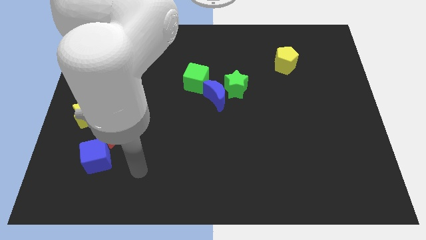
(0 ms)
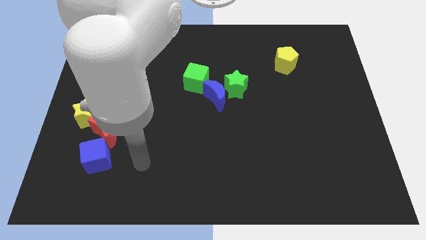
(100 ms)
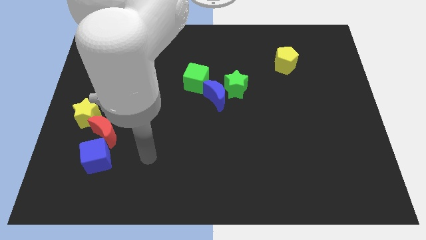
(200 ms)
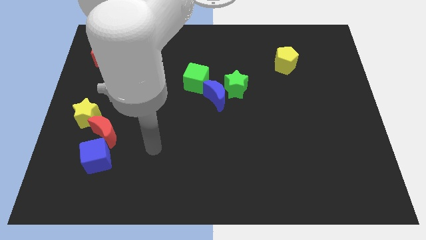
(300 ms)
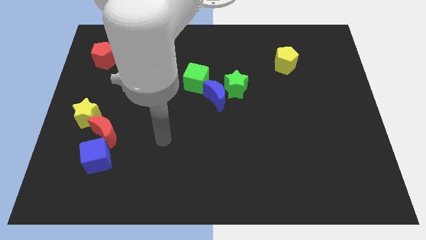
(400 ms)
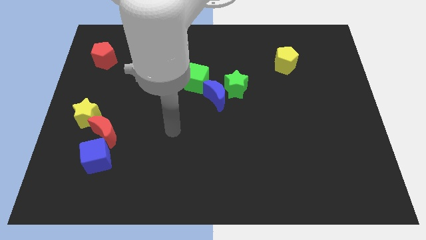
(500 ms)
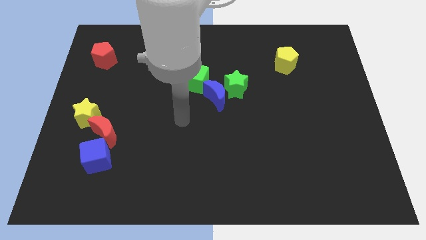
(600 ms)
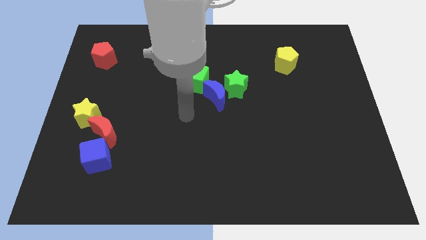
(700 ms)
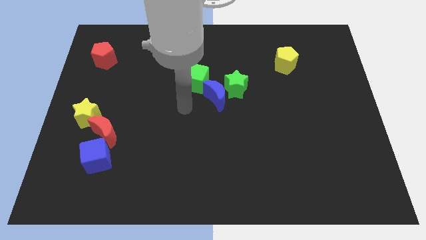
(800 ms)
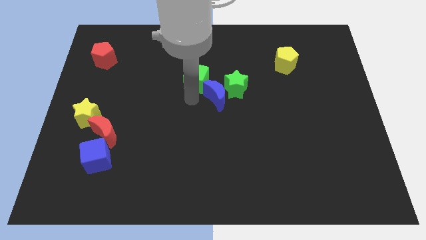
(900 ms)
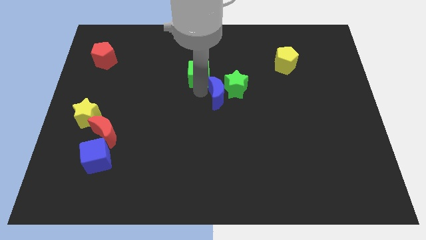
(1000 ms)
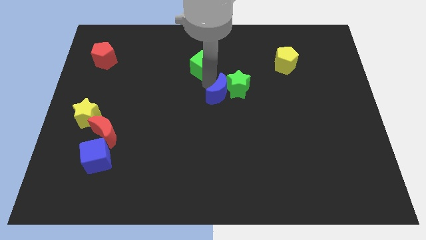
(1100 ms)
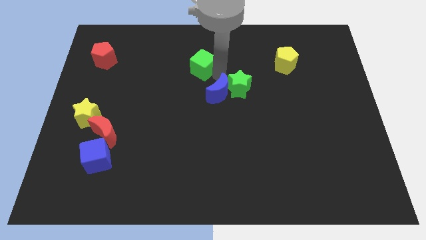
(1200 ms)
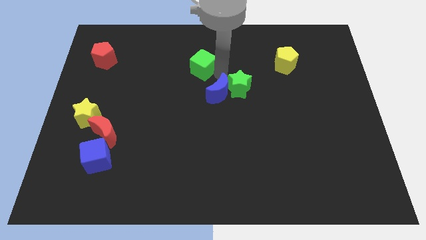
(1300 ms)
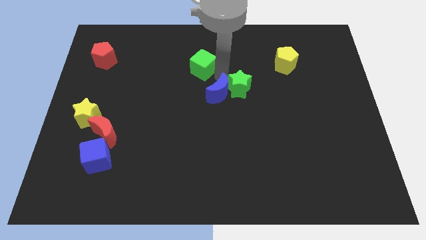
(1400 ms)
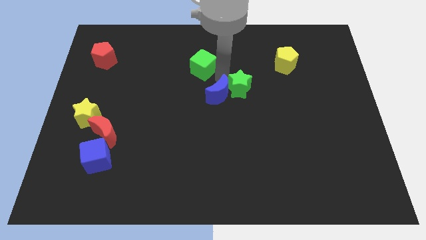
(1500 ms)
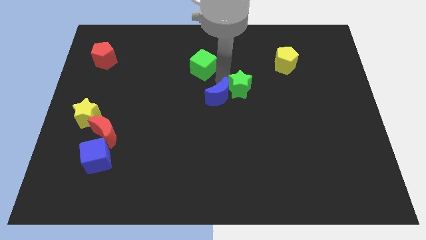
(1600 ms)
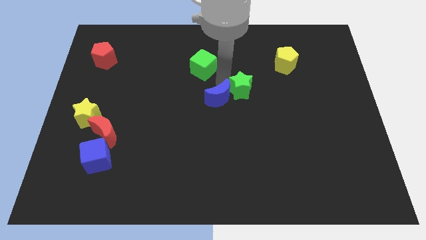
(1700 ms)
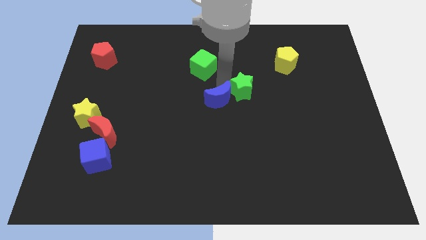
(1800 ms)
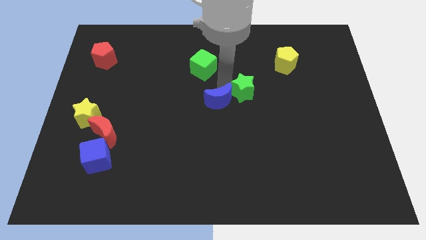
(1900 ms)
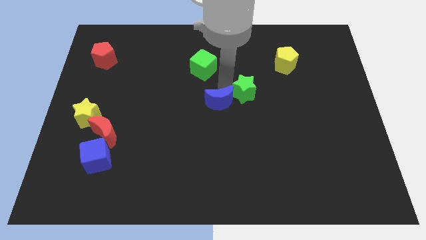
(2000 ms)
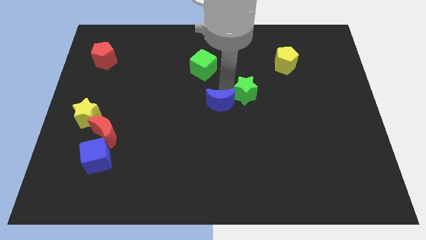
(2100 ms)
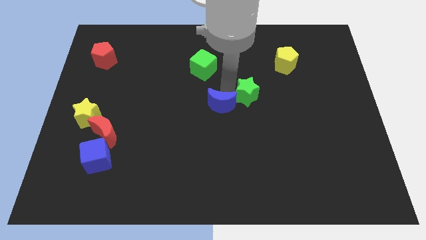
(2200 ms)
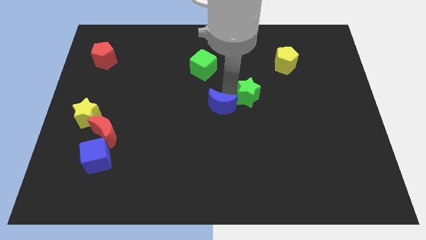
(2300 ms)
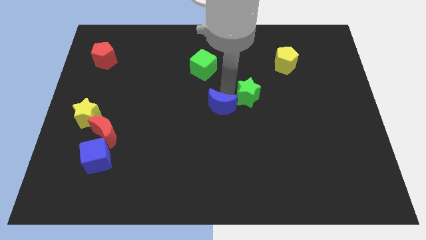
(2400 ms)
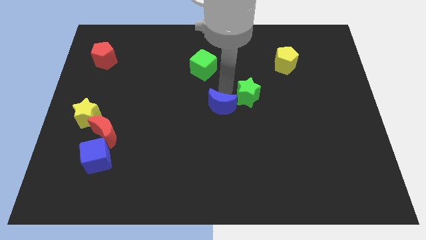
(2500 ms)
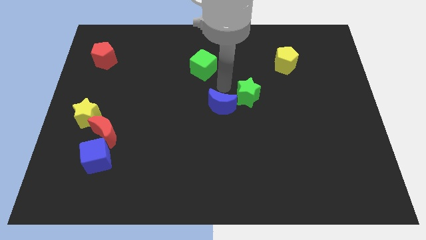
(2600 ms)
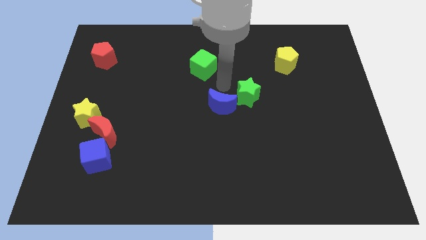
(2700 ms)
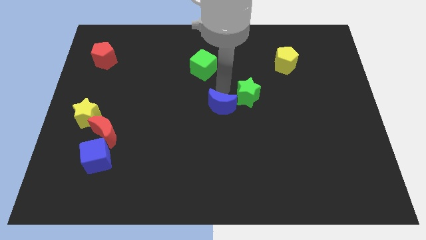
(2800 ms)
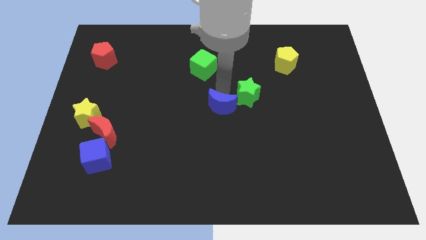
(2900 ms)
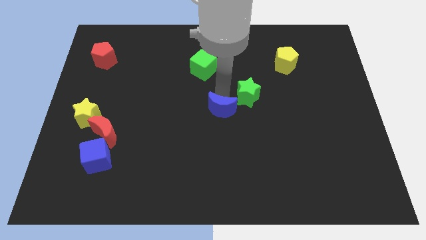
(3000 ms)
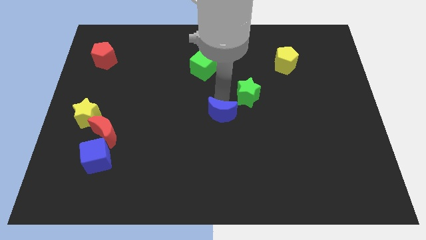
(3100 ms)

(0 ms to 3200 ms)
pull the blue moon apart from the green star and green cube

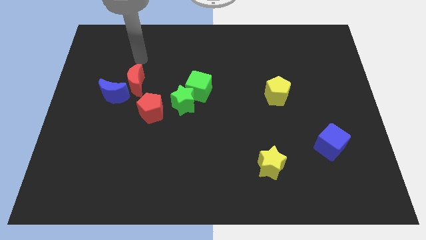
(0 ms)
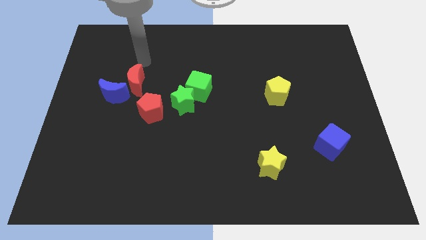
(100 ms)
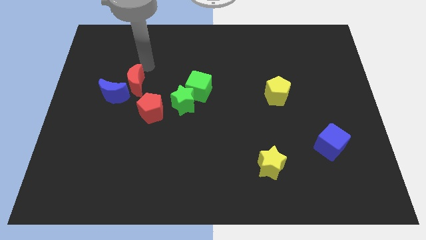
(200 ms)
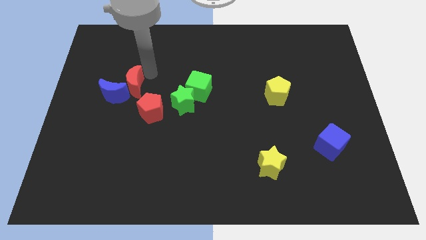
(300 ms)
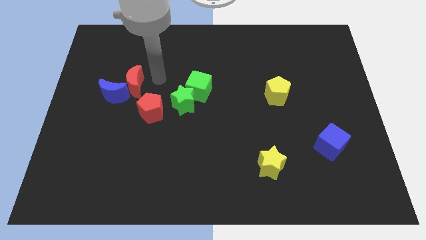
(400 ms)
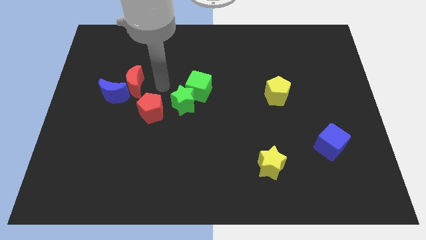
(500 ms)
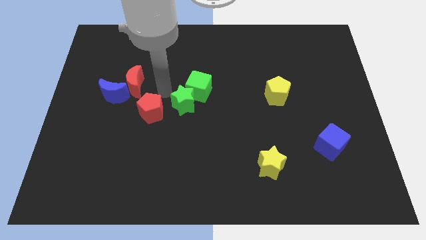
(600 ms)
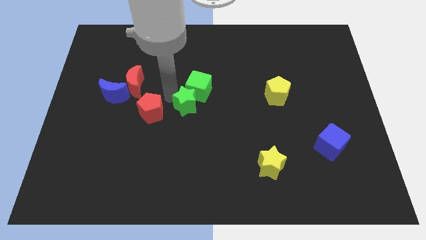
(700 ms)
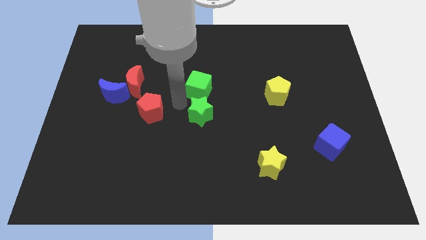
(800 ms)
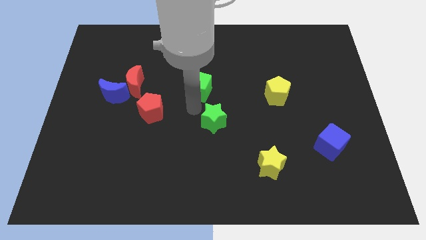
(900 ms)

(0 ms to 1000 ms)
pull the green cube apart from the green star

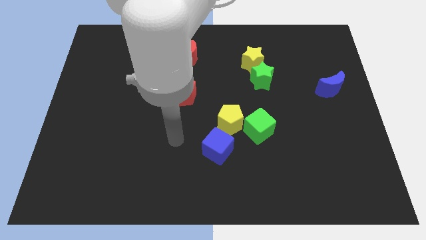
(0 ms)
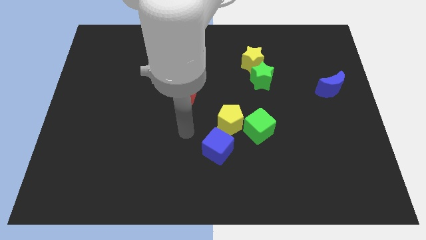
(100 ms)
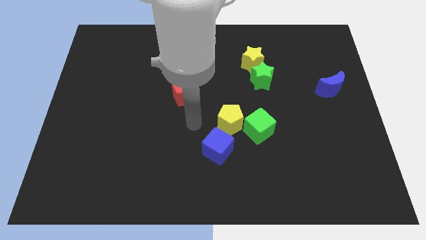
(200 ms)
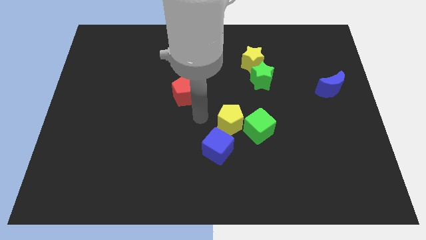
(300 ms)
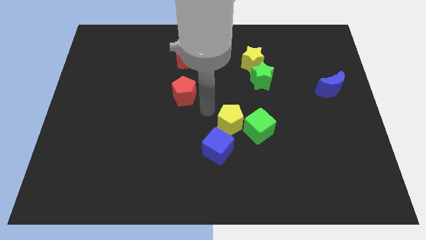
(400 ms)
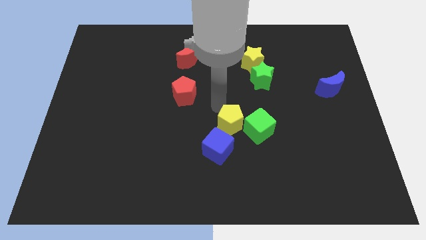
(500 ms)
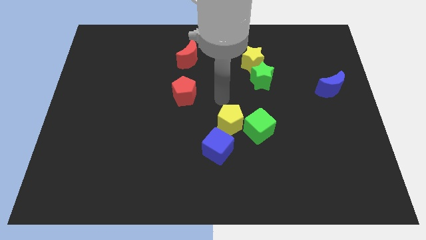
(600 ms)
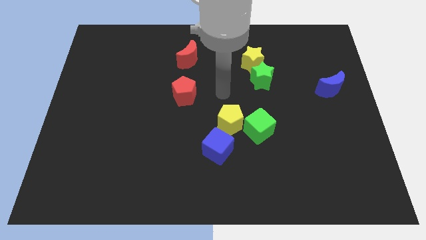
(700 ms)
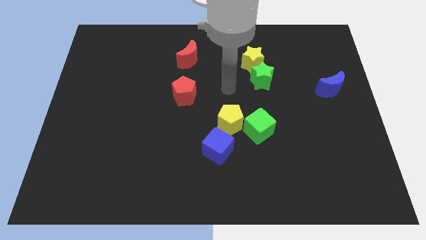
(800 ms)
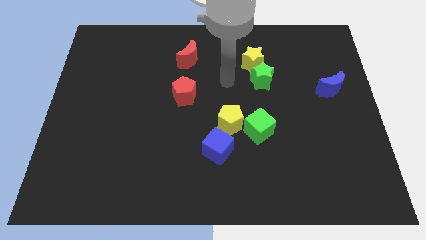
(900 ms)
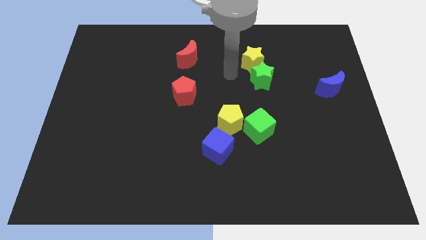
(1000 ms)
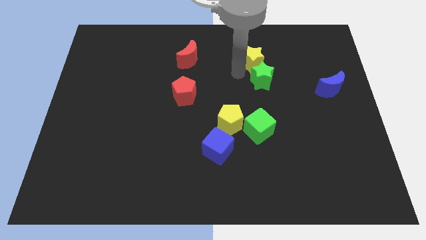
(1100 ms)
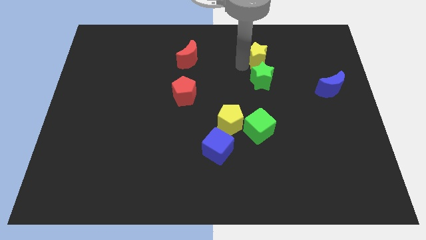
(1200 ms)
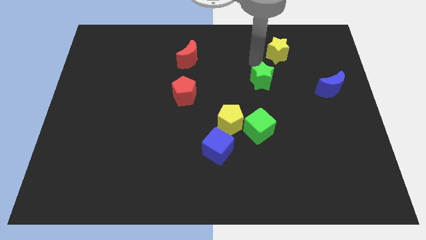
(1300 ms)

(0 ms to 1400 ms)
move the green star away from the yellow star

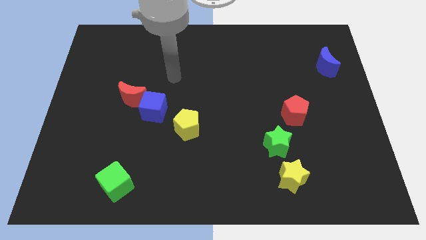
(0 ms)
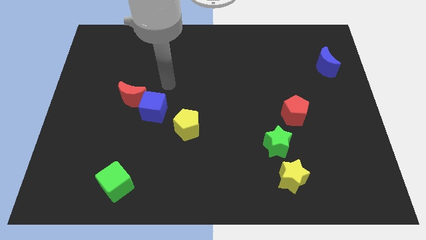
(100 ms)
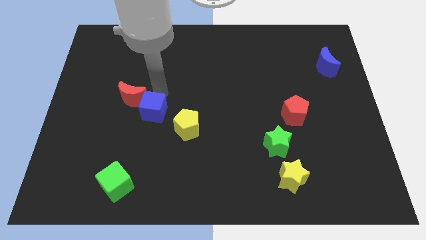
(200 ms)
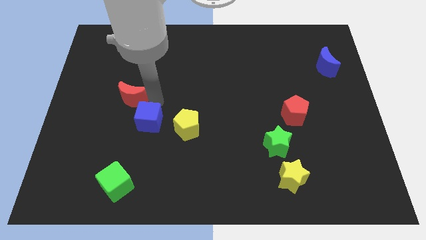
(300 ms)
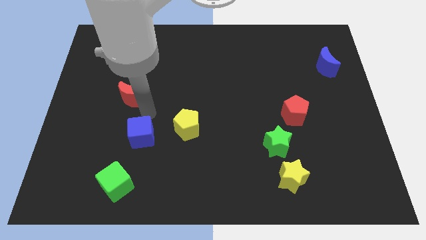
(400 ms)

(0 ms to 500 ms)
move the red moon away from the blue cube

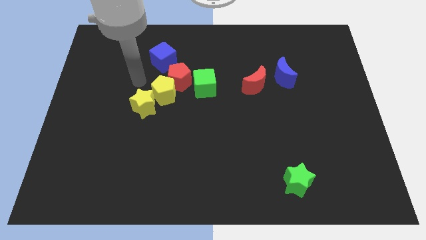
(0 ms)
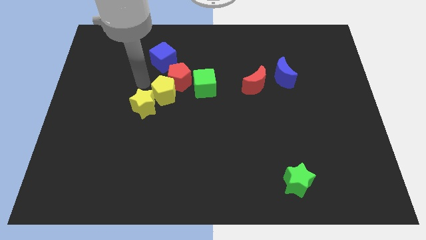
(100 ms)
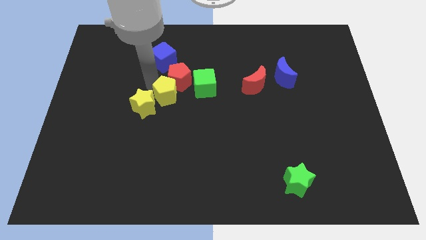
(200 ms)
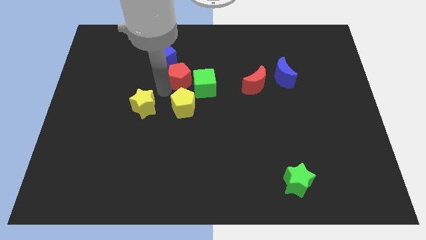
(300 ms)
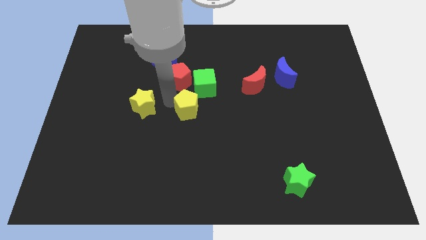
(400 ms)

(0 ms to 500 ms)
separate the yellow star from the yellow pentagon

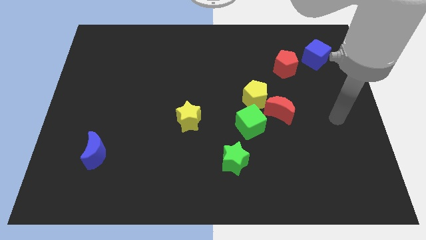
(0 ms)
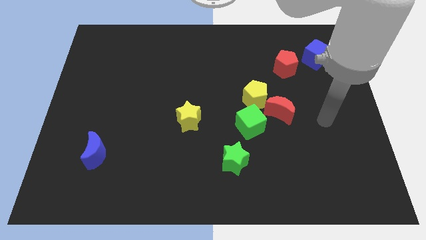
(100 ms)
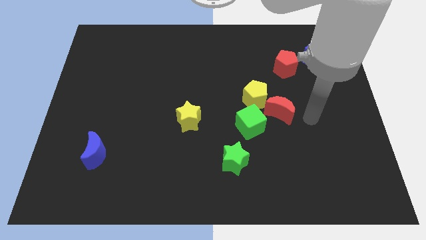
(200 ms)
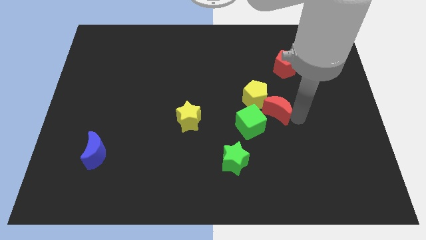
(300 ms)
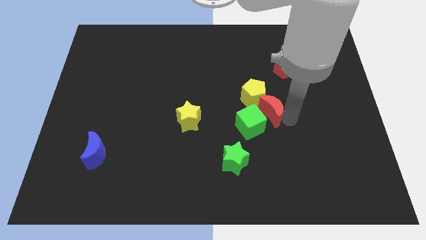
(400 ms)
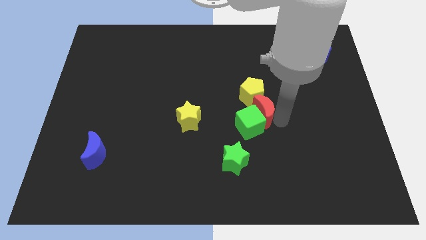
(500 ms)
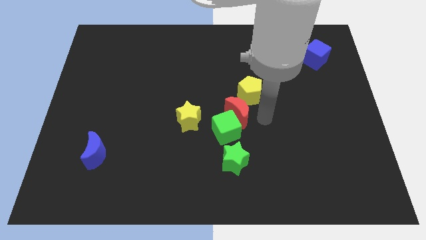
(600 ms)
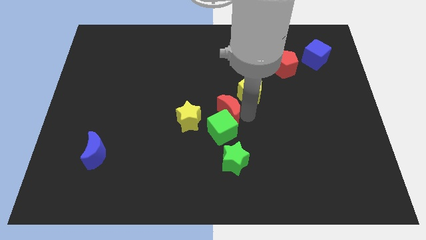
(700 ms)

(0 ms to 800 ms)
move the yellow pentagon away from the red moon and green cube

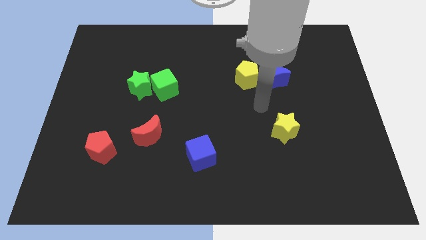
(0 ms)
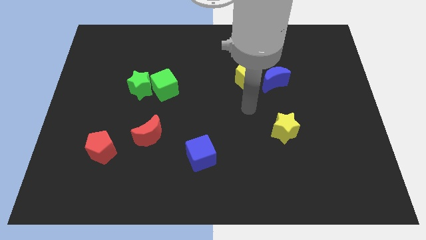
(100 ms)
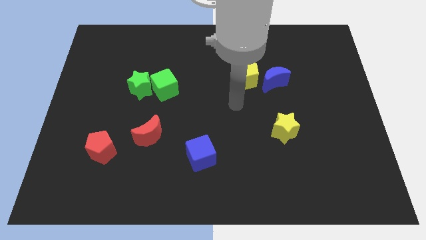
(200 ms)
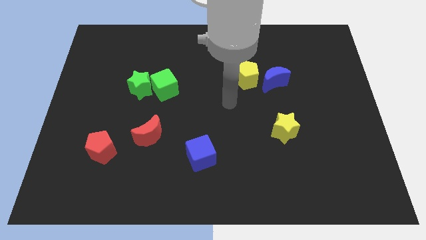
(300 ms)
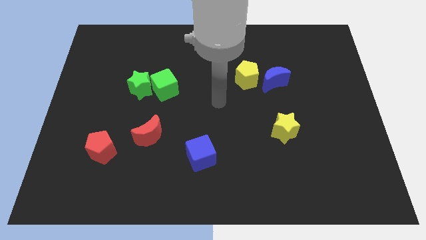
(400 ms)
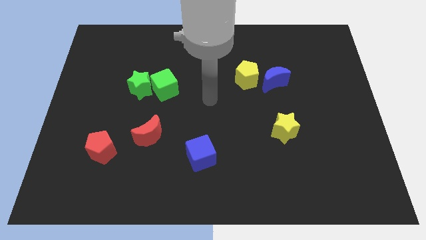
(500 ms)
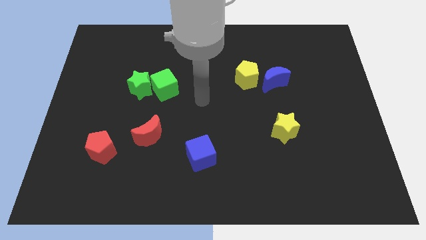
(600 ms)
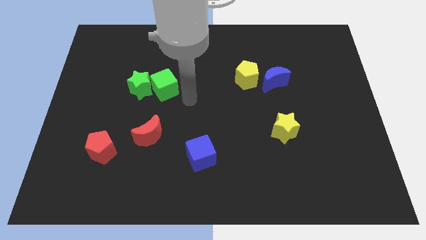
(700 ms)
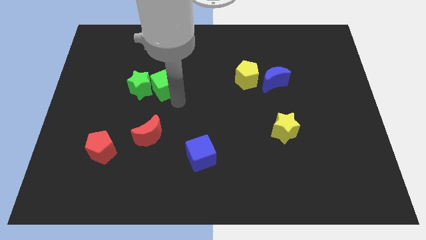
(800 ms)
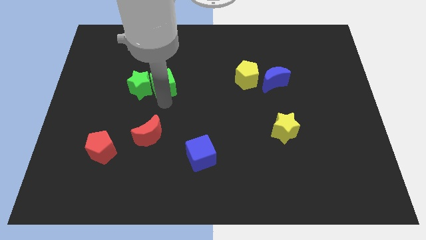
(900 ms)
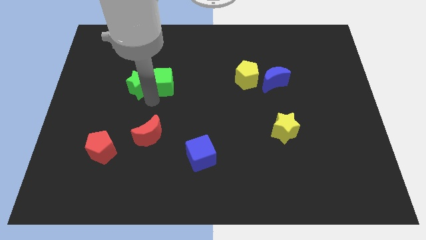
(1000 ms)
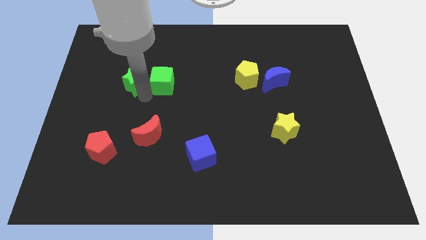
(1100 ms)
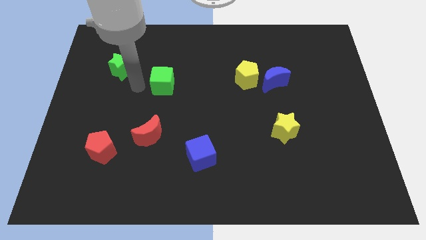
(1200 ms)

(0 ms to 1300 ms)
move the green cube away from the green star

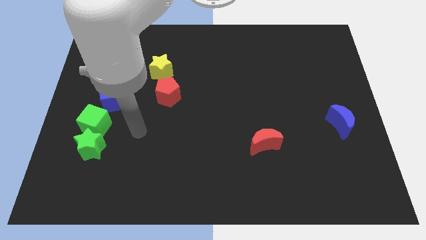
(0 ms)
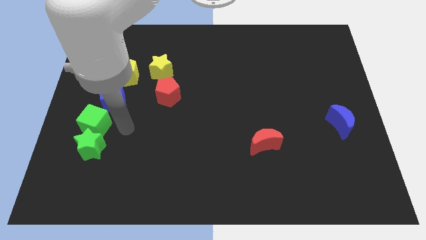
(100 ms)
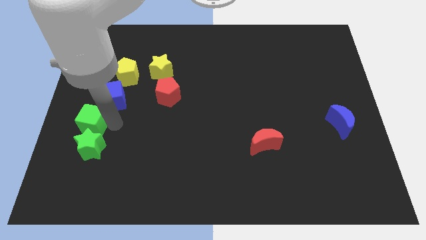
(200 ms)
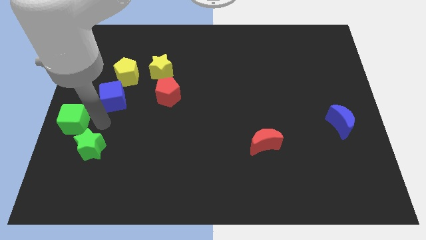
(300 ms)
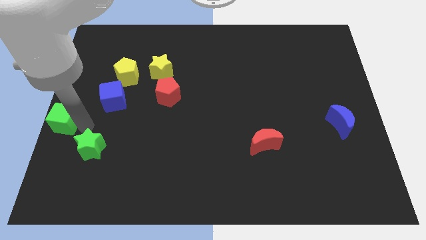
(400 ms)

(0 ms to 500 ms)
separate the green star from the green cube

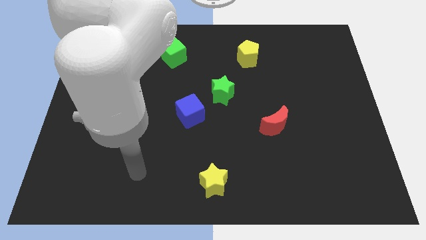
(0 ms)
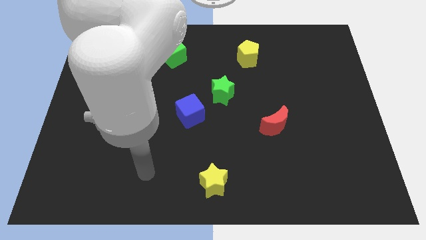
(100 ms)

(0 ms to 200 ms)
separate the blue cube from the green star
